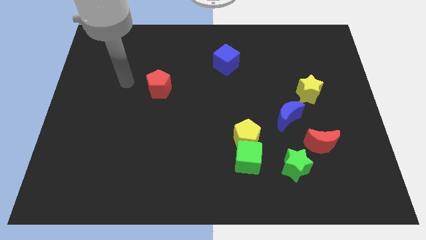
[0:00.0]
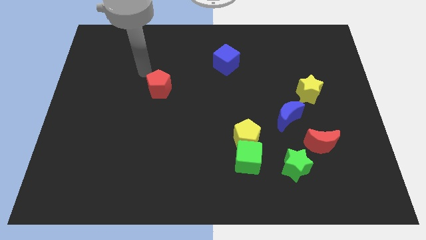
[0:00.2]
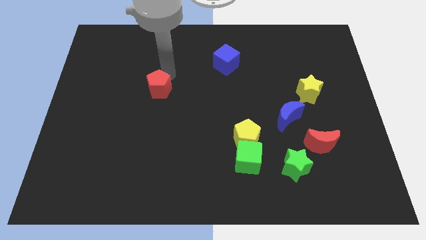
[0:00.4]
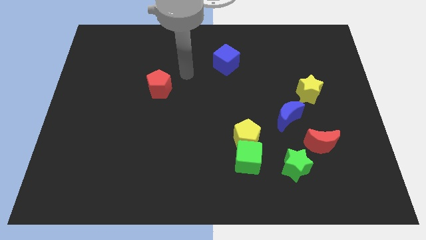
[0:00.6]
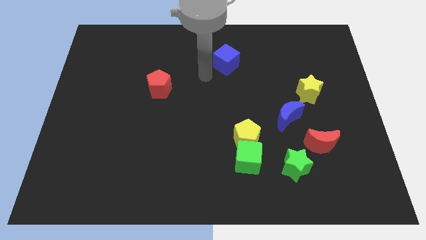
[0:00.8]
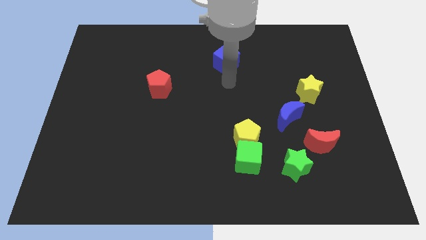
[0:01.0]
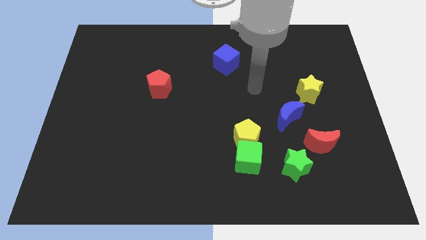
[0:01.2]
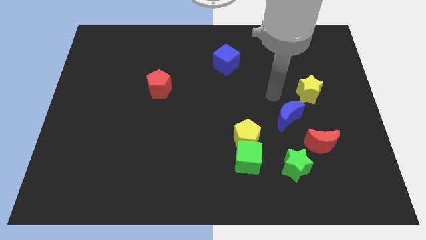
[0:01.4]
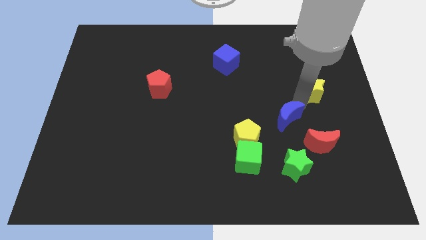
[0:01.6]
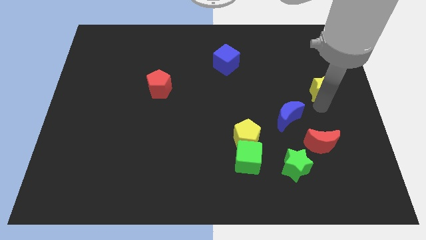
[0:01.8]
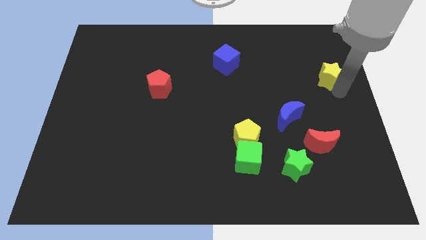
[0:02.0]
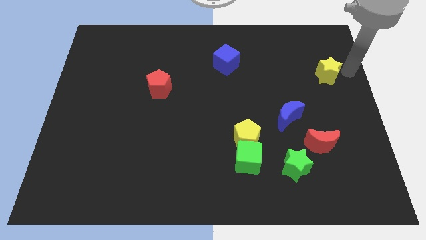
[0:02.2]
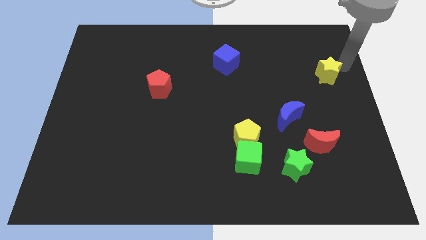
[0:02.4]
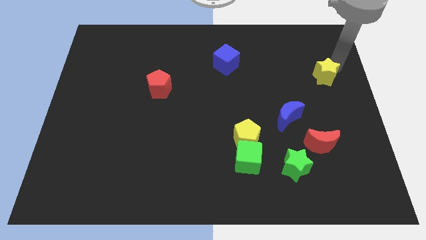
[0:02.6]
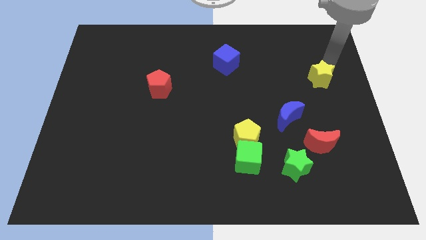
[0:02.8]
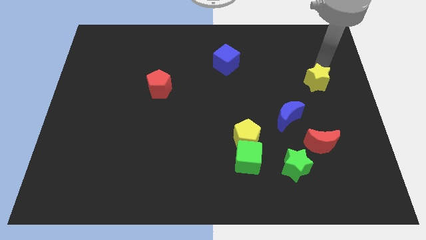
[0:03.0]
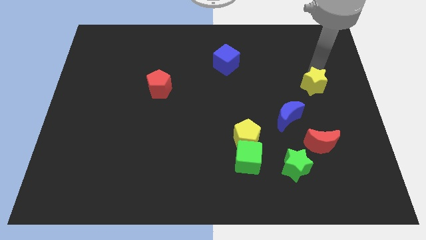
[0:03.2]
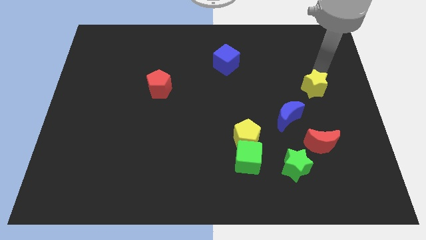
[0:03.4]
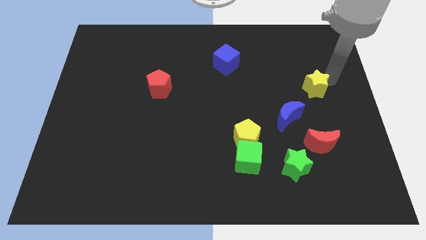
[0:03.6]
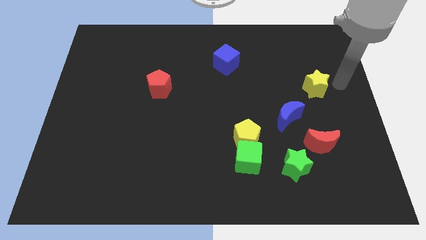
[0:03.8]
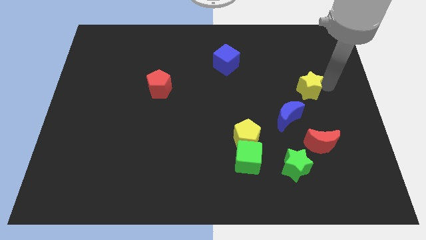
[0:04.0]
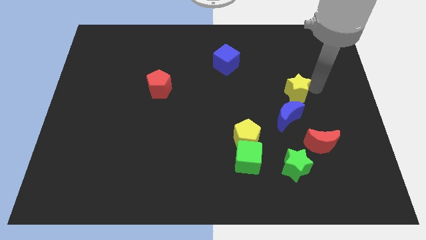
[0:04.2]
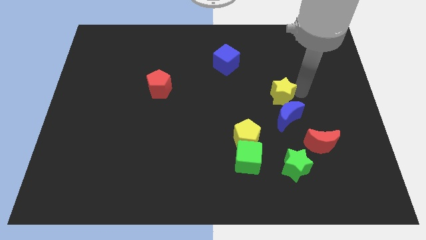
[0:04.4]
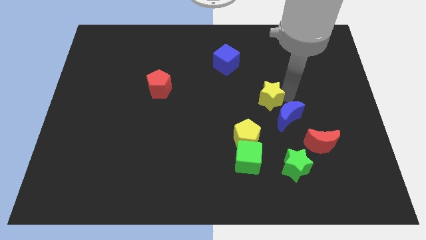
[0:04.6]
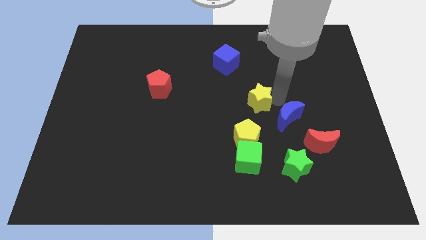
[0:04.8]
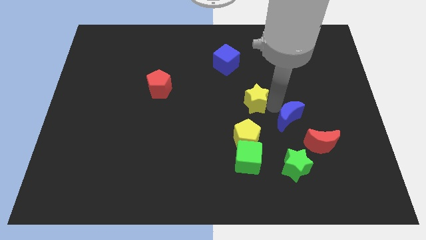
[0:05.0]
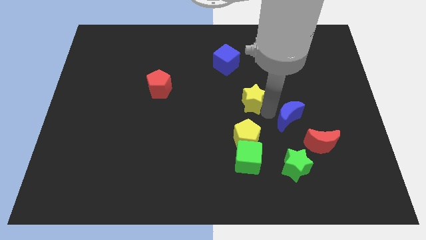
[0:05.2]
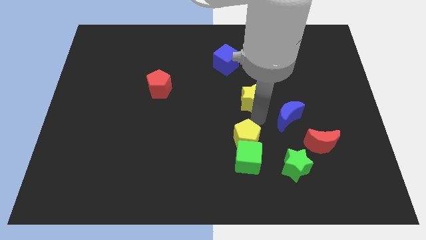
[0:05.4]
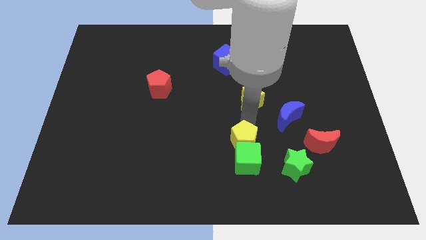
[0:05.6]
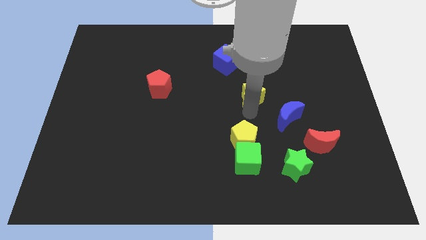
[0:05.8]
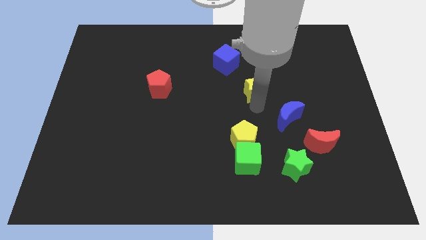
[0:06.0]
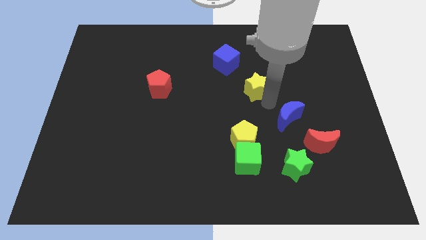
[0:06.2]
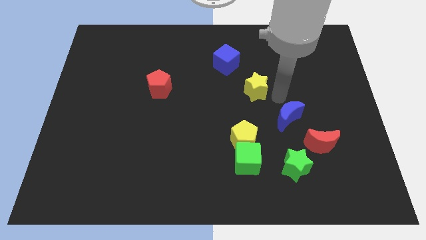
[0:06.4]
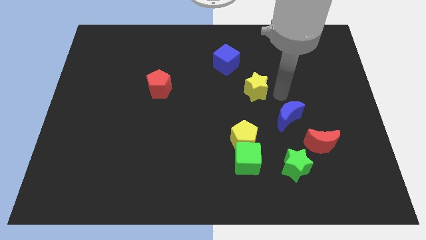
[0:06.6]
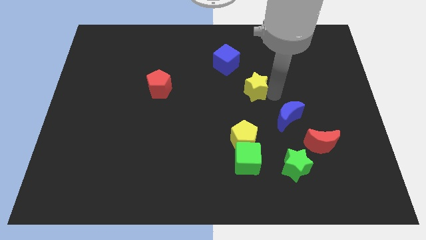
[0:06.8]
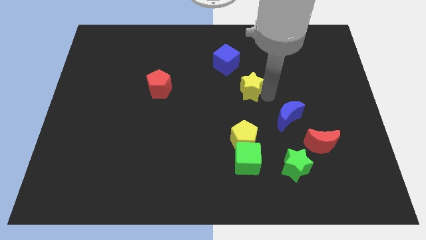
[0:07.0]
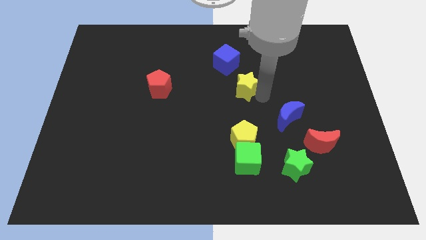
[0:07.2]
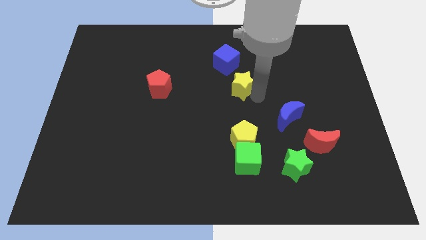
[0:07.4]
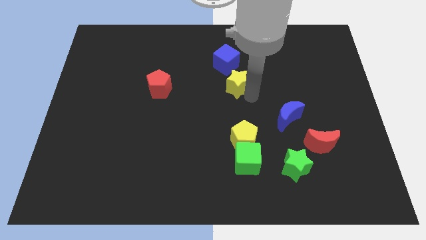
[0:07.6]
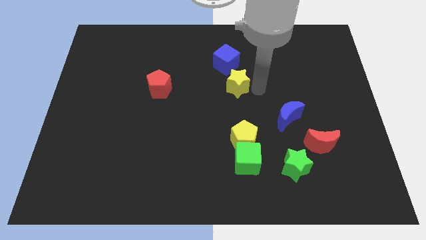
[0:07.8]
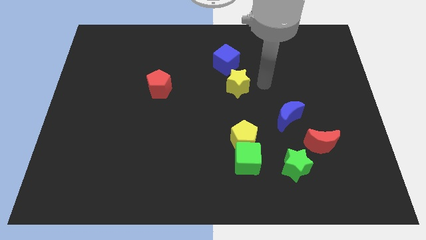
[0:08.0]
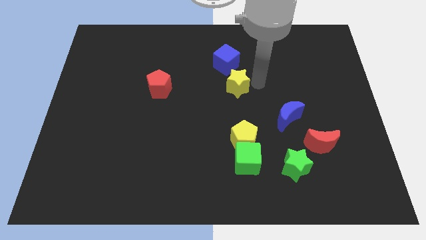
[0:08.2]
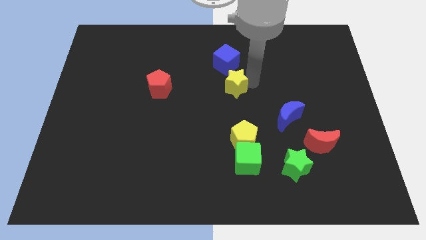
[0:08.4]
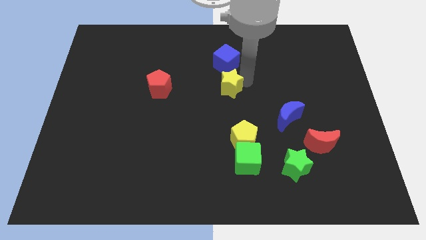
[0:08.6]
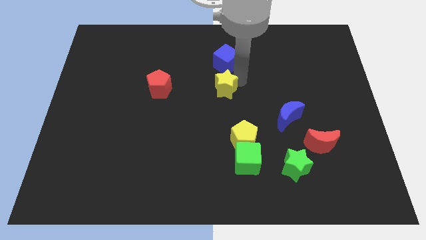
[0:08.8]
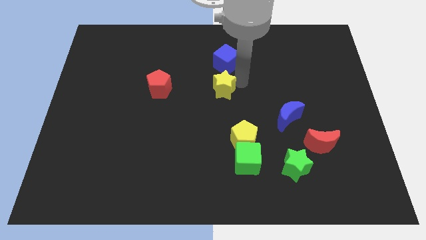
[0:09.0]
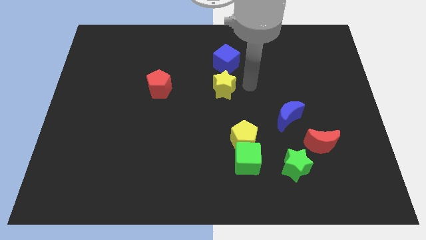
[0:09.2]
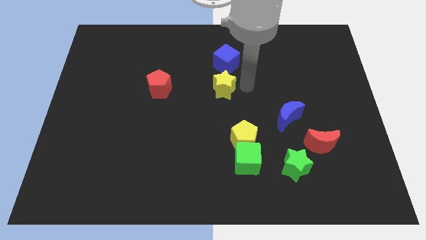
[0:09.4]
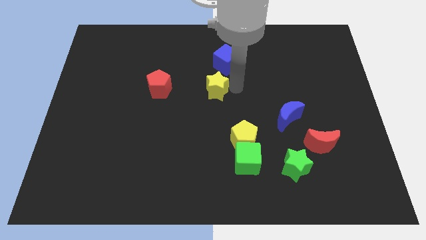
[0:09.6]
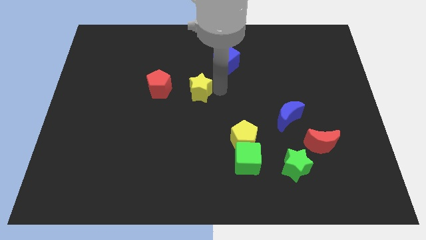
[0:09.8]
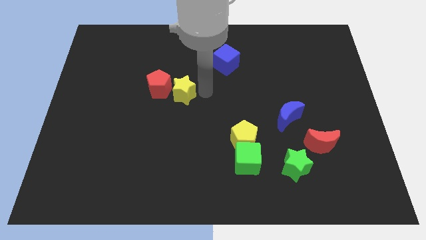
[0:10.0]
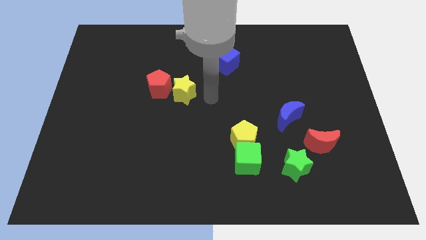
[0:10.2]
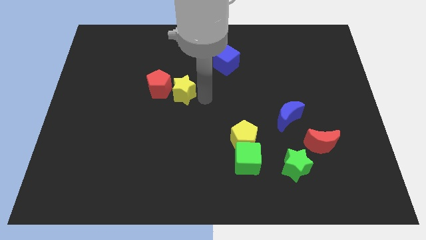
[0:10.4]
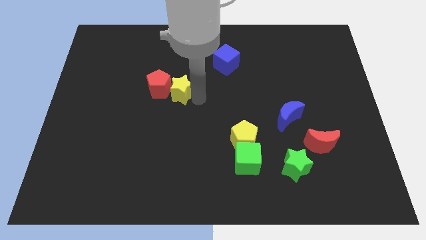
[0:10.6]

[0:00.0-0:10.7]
put the yellow star close to the red pentagon

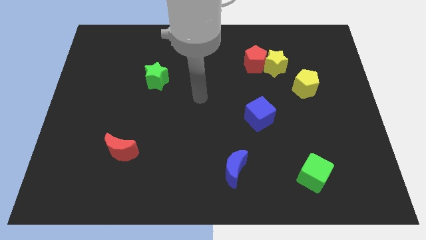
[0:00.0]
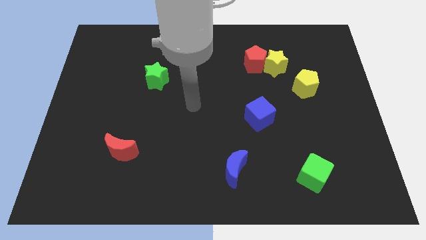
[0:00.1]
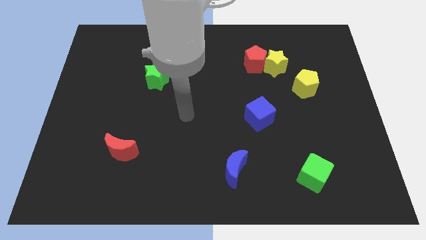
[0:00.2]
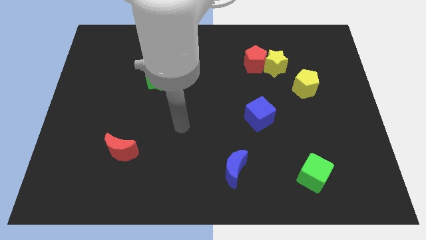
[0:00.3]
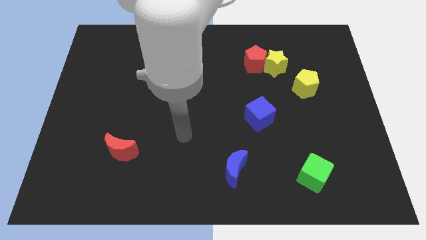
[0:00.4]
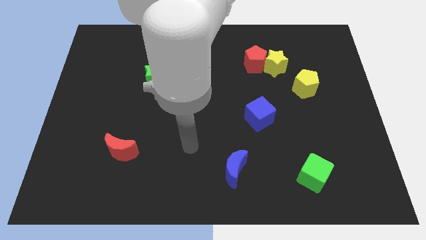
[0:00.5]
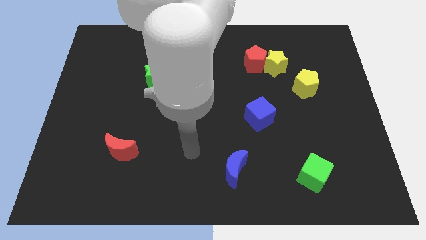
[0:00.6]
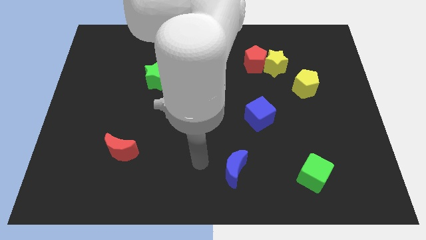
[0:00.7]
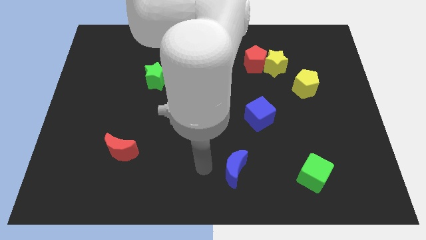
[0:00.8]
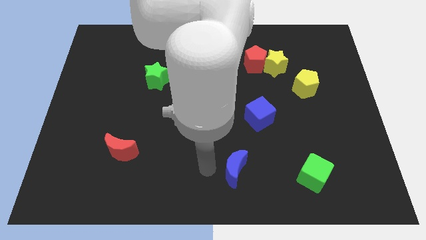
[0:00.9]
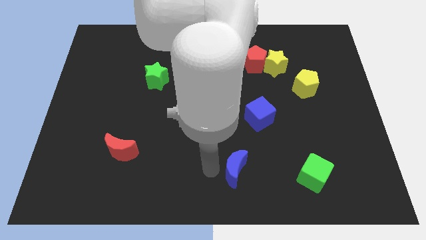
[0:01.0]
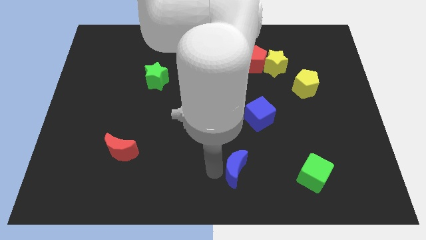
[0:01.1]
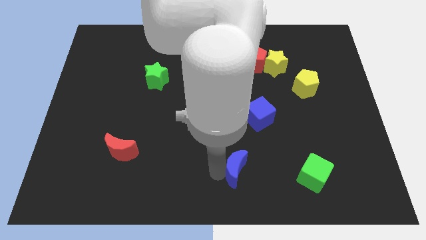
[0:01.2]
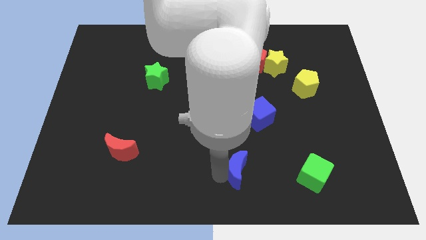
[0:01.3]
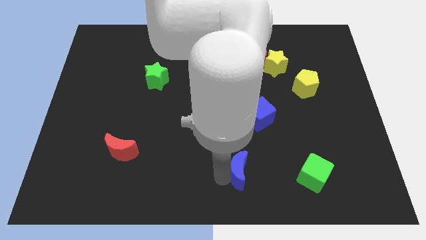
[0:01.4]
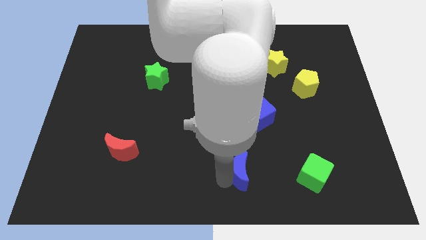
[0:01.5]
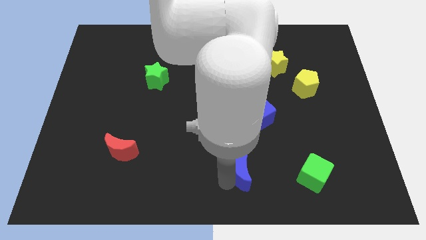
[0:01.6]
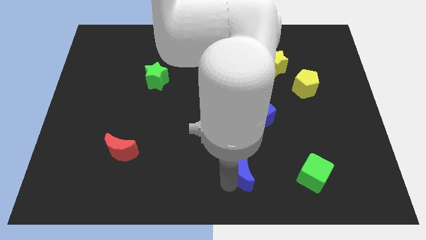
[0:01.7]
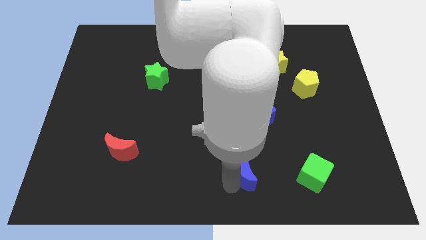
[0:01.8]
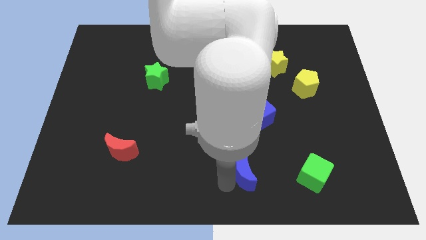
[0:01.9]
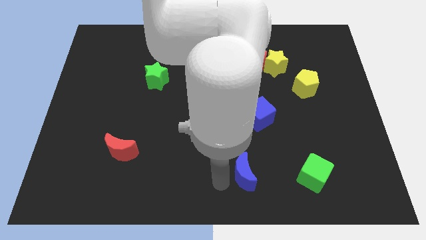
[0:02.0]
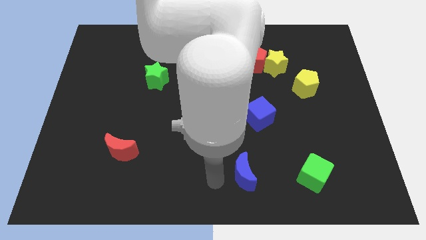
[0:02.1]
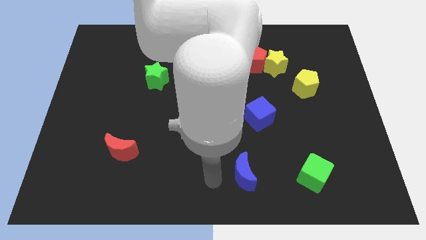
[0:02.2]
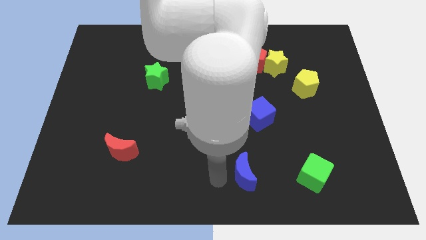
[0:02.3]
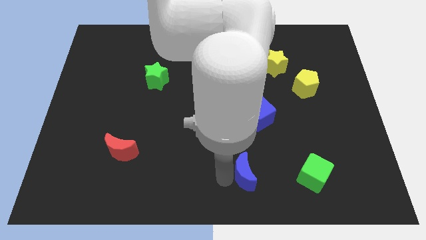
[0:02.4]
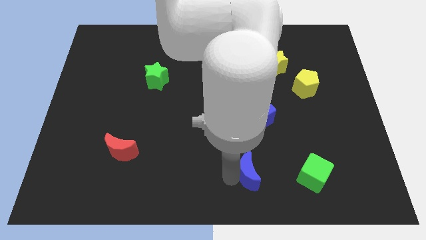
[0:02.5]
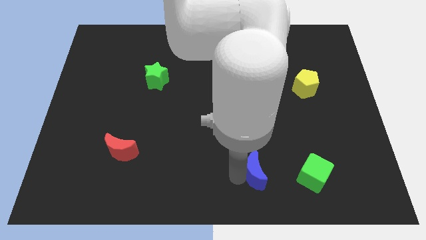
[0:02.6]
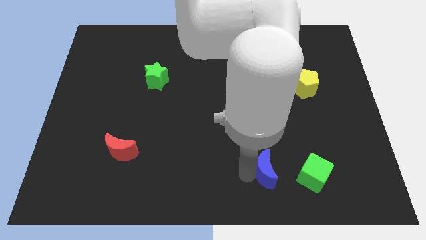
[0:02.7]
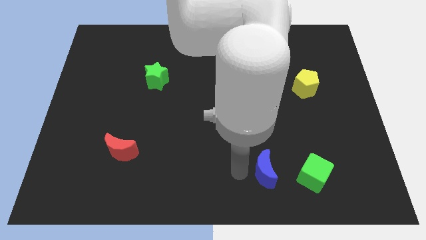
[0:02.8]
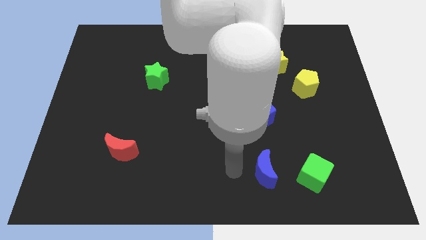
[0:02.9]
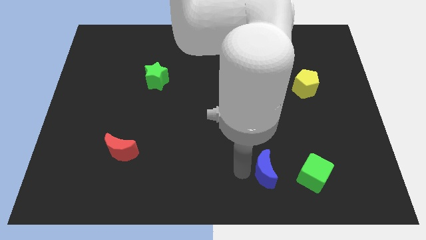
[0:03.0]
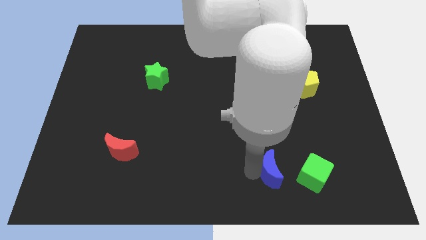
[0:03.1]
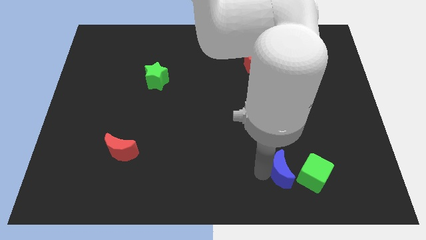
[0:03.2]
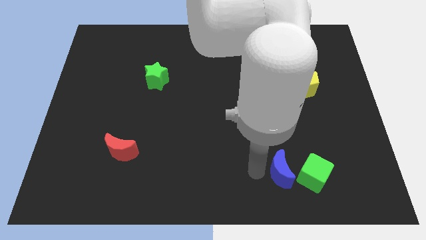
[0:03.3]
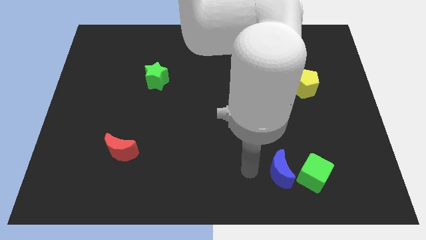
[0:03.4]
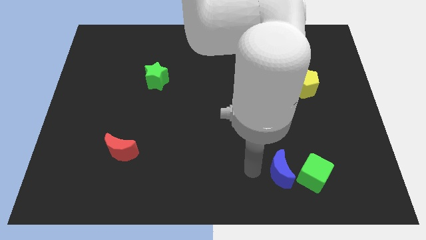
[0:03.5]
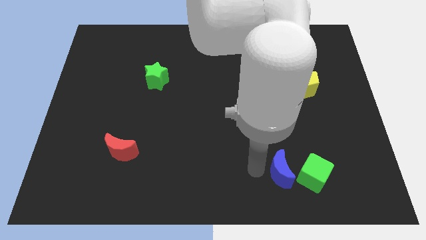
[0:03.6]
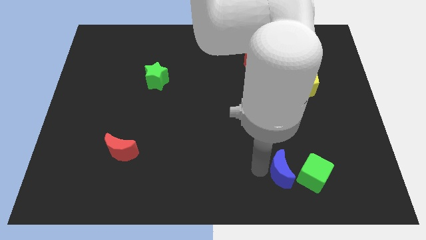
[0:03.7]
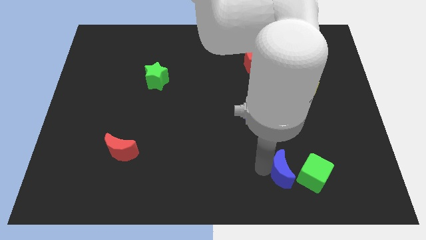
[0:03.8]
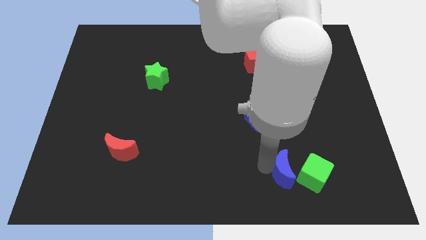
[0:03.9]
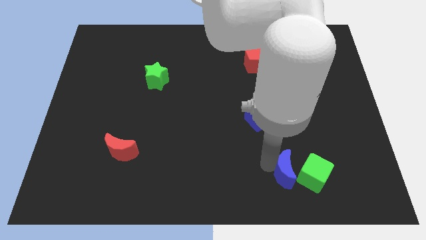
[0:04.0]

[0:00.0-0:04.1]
push the blue moon towards the green cube
